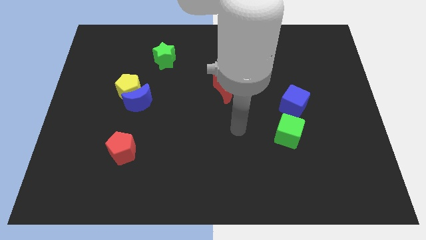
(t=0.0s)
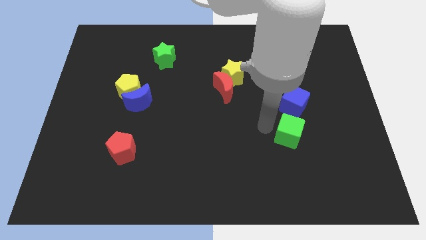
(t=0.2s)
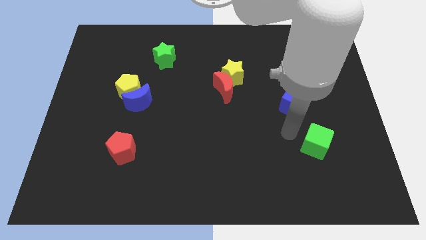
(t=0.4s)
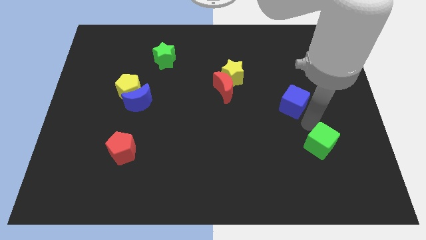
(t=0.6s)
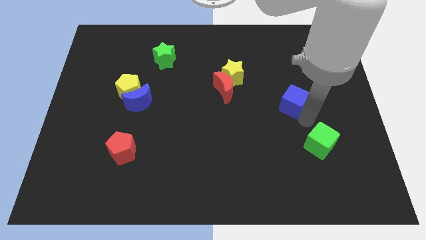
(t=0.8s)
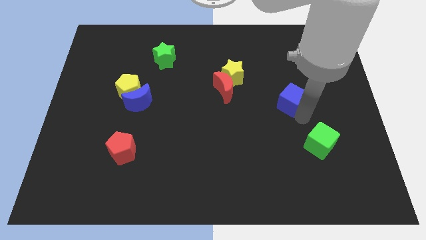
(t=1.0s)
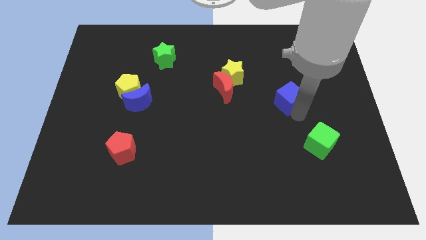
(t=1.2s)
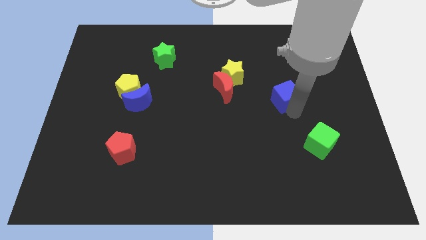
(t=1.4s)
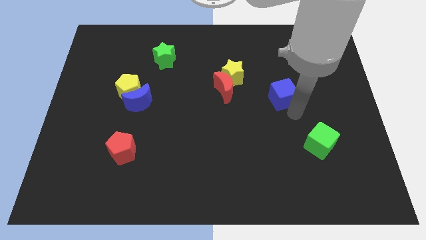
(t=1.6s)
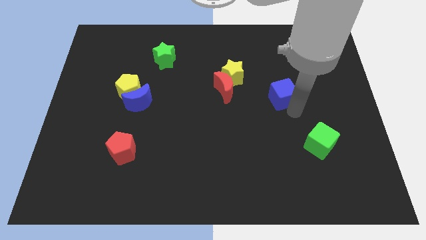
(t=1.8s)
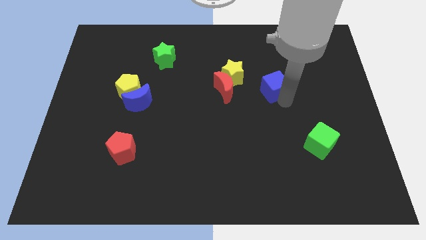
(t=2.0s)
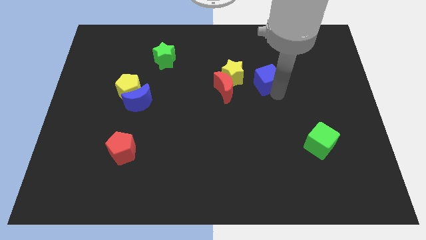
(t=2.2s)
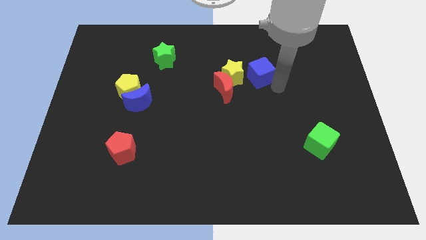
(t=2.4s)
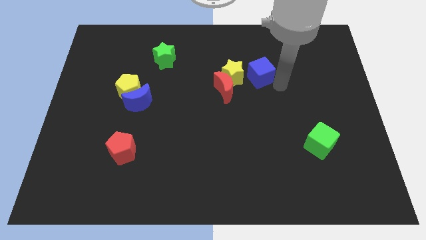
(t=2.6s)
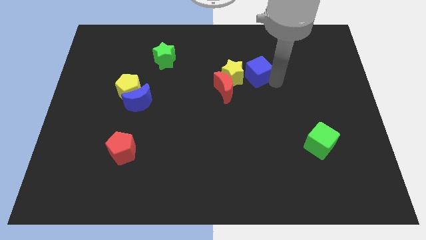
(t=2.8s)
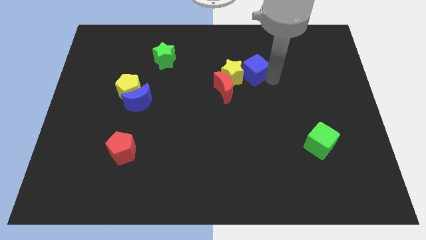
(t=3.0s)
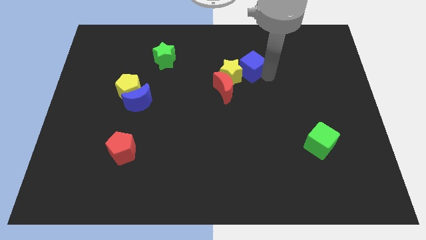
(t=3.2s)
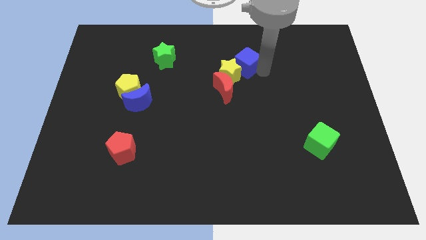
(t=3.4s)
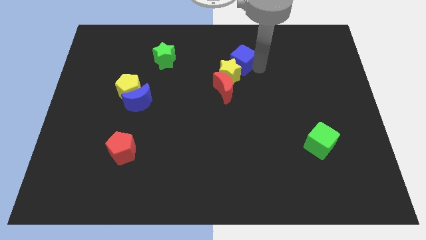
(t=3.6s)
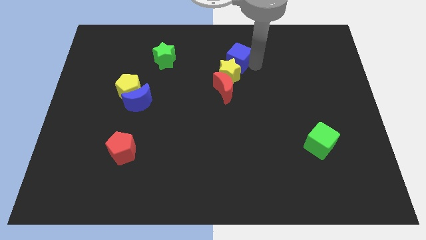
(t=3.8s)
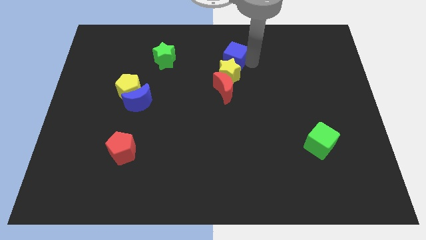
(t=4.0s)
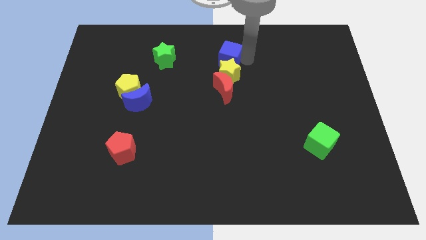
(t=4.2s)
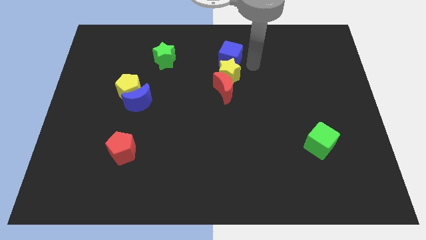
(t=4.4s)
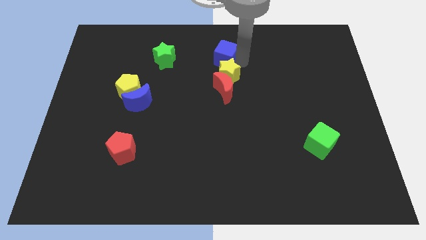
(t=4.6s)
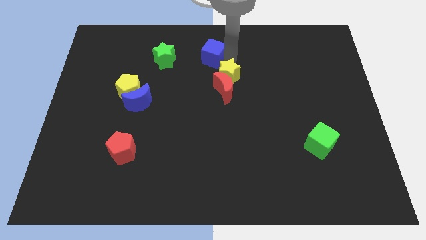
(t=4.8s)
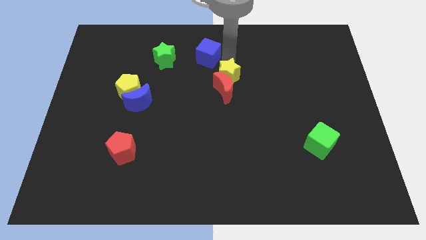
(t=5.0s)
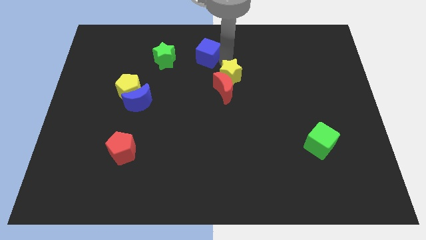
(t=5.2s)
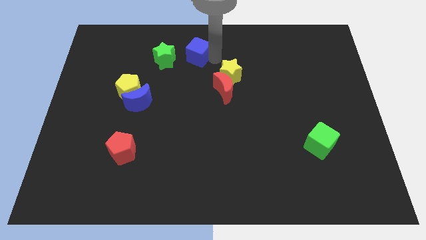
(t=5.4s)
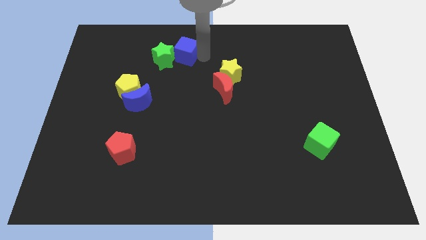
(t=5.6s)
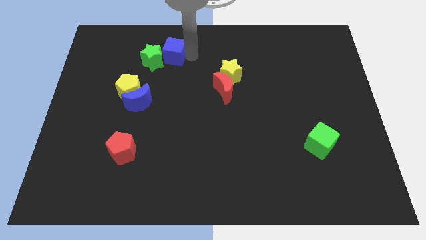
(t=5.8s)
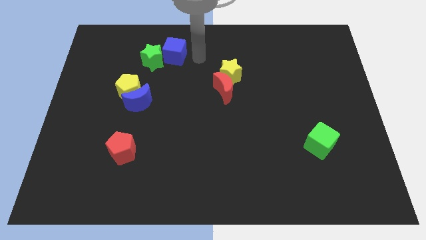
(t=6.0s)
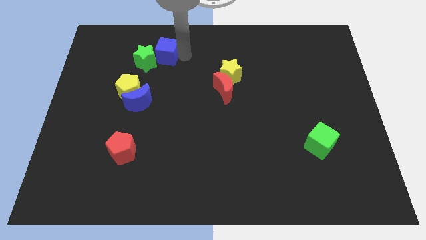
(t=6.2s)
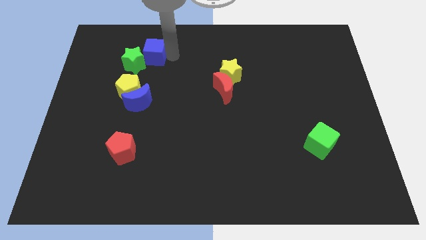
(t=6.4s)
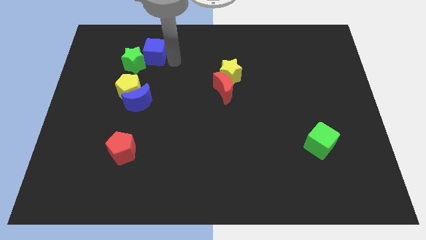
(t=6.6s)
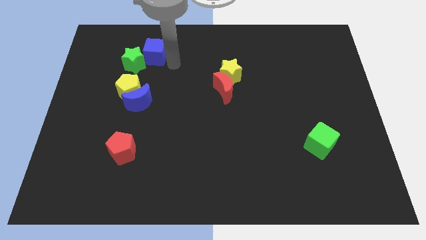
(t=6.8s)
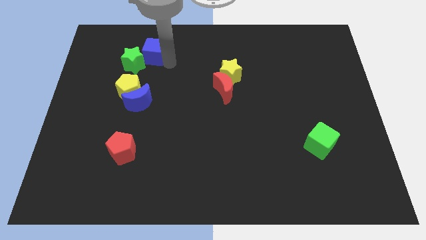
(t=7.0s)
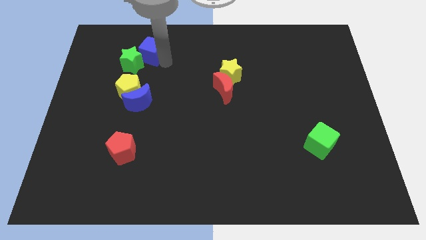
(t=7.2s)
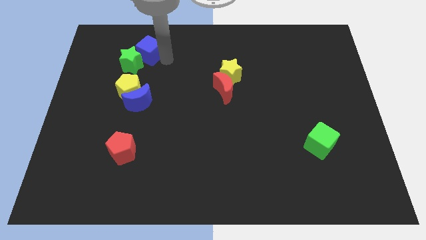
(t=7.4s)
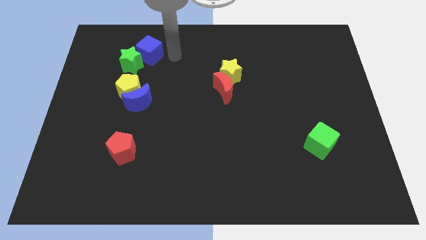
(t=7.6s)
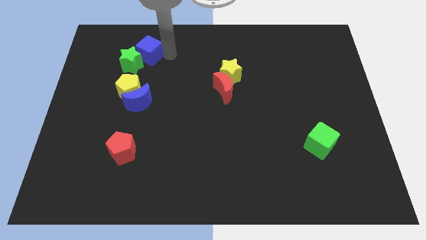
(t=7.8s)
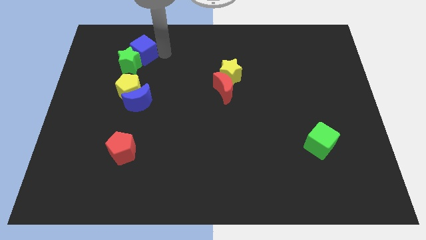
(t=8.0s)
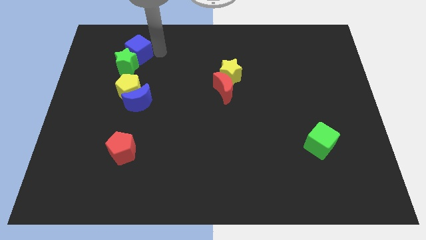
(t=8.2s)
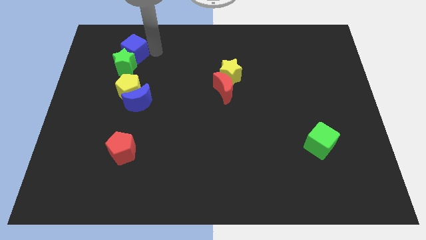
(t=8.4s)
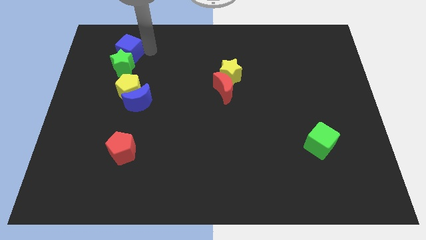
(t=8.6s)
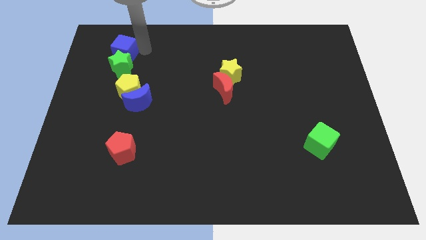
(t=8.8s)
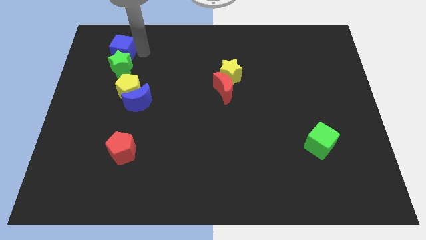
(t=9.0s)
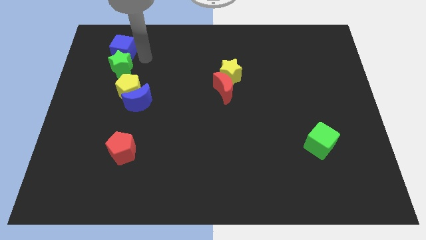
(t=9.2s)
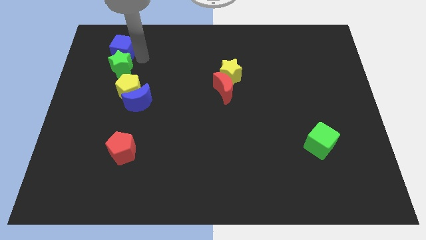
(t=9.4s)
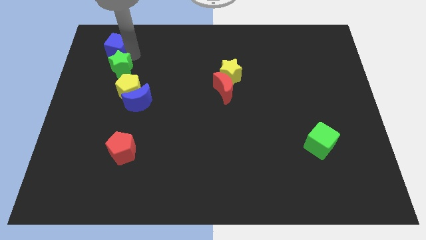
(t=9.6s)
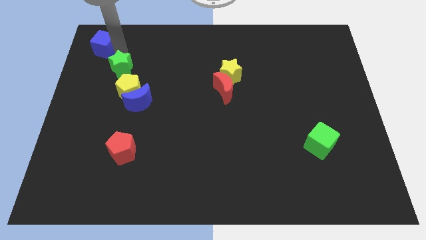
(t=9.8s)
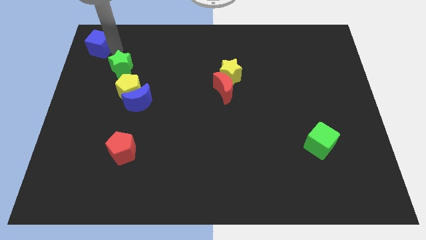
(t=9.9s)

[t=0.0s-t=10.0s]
push the blue cube to the top left of the board

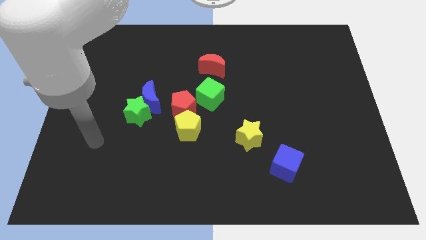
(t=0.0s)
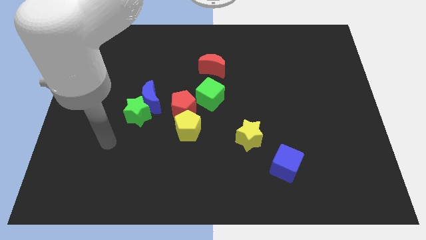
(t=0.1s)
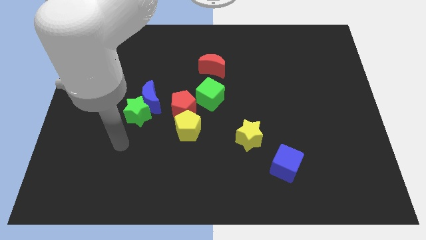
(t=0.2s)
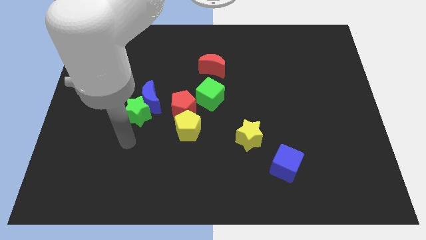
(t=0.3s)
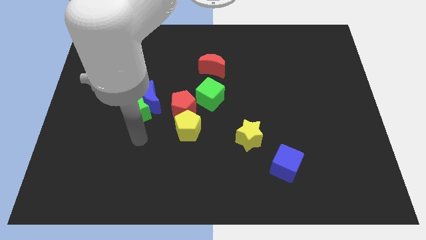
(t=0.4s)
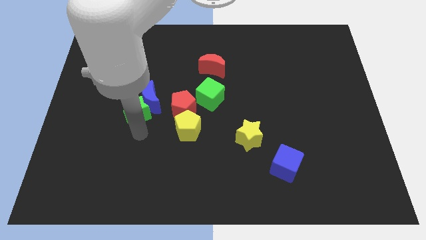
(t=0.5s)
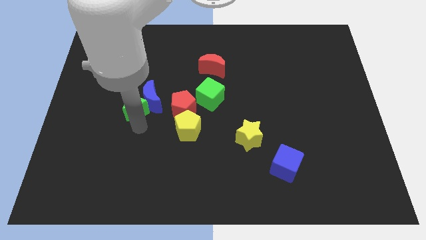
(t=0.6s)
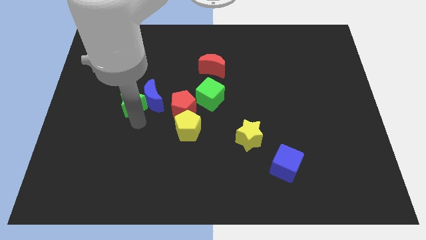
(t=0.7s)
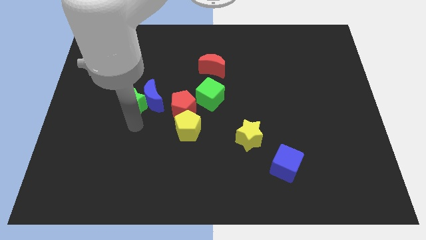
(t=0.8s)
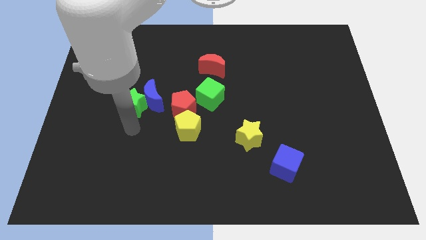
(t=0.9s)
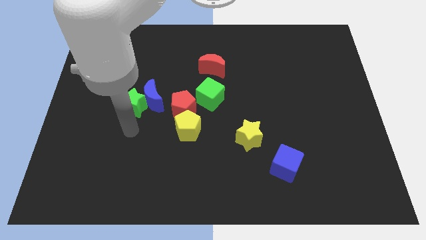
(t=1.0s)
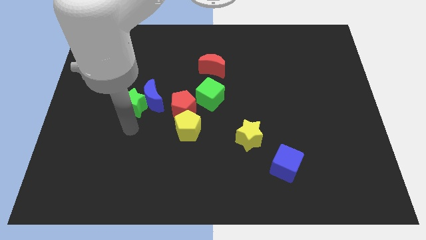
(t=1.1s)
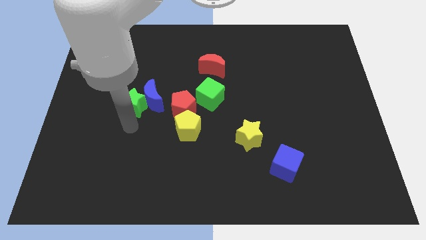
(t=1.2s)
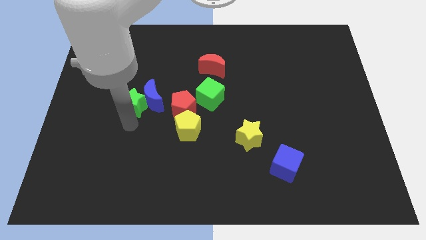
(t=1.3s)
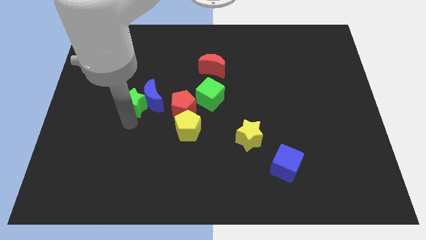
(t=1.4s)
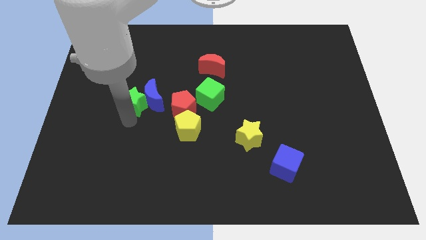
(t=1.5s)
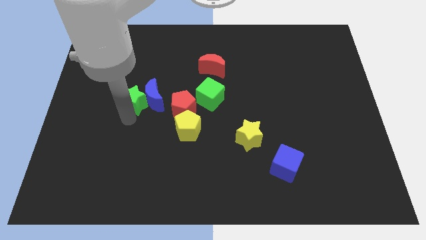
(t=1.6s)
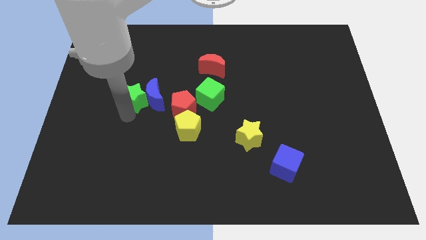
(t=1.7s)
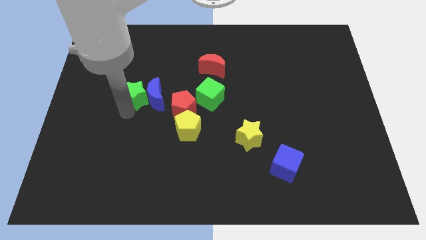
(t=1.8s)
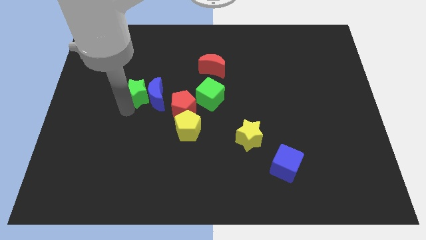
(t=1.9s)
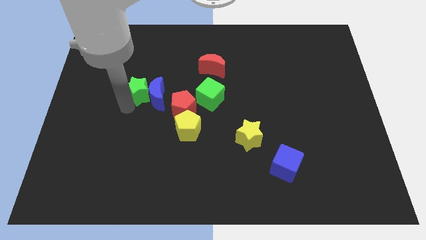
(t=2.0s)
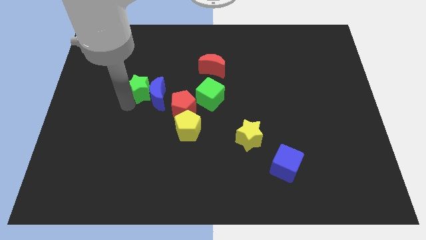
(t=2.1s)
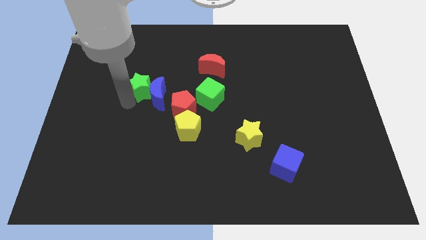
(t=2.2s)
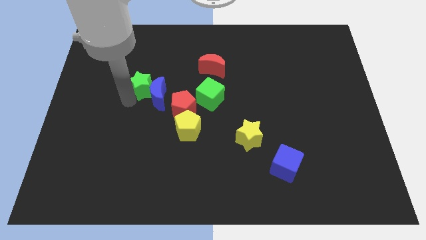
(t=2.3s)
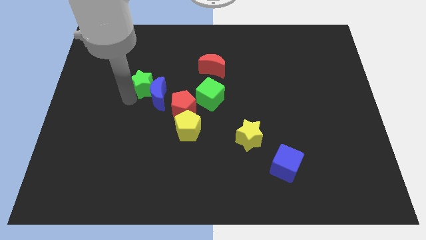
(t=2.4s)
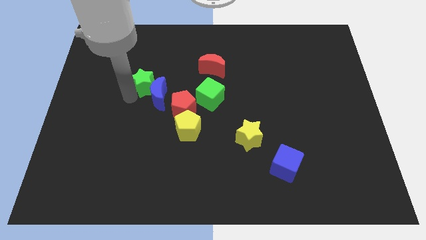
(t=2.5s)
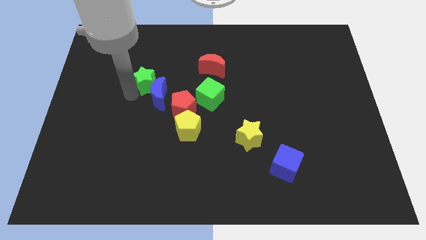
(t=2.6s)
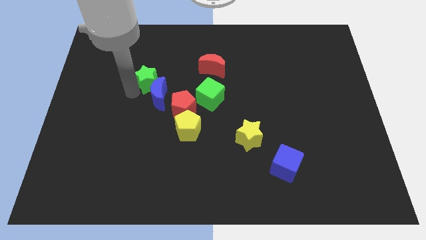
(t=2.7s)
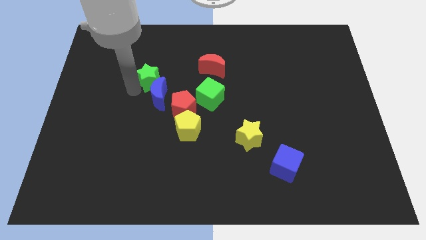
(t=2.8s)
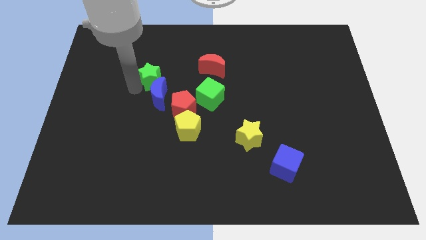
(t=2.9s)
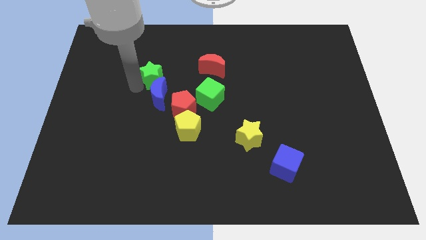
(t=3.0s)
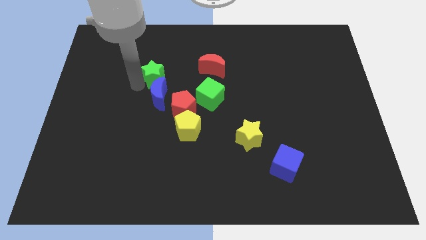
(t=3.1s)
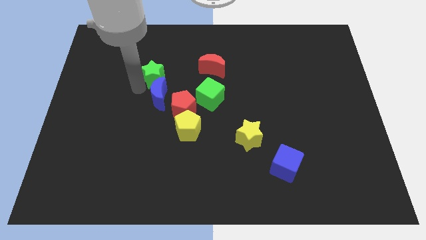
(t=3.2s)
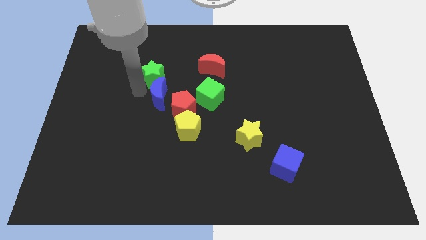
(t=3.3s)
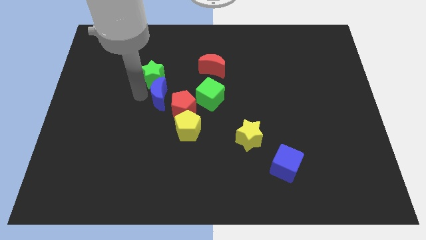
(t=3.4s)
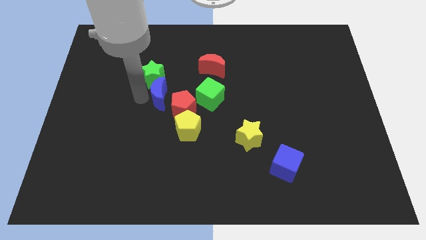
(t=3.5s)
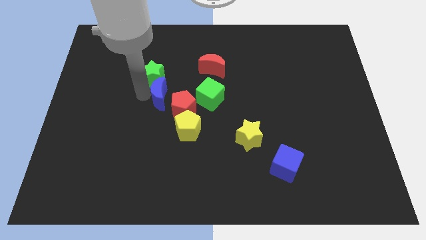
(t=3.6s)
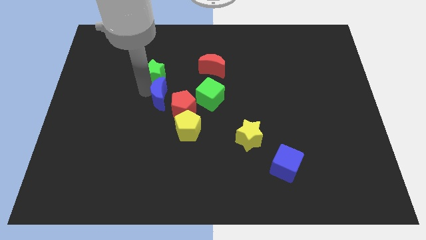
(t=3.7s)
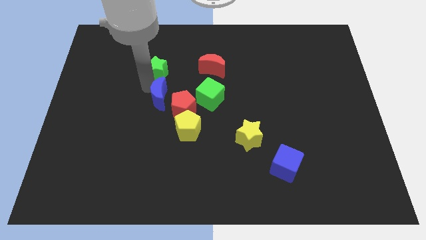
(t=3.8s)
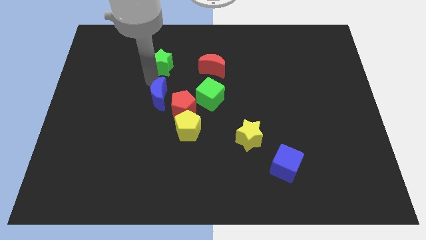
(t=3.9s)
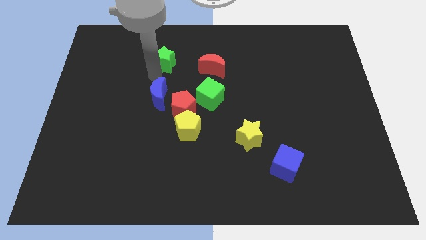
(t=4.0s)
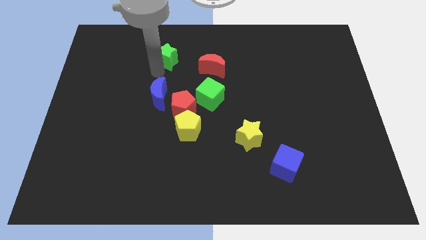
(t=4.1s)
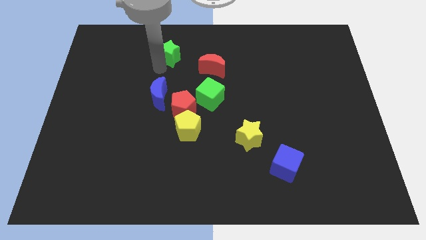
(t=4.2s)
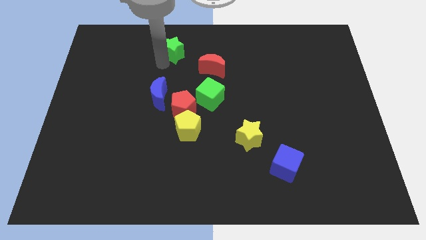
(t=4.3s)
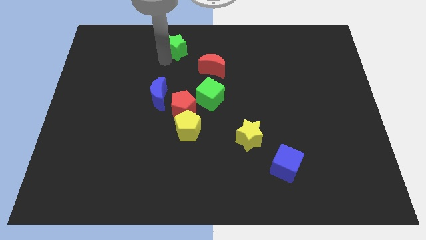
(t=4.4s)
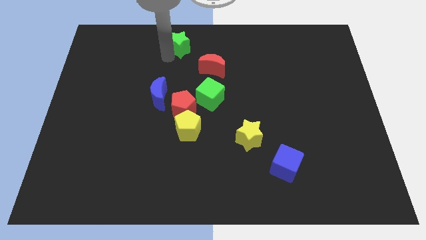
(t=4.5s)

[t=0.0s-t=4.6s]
put the green star to the top side
